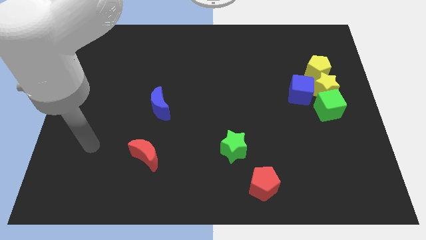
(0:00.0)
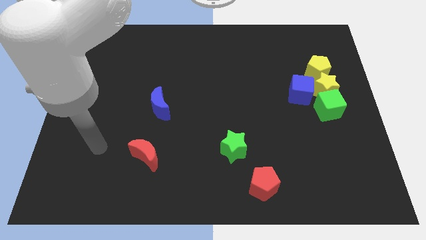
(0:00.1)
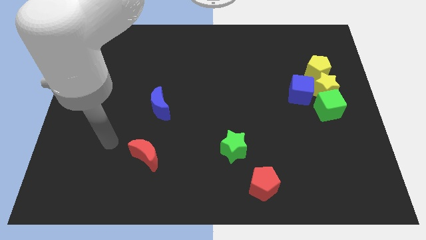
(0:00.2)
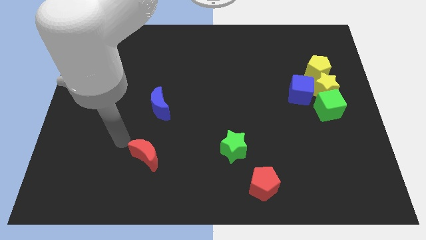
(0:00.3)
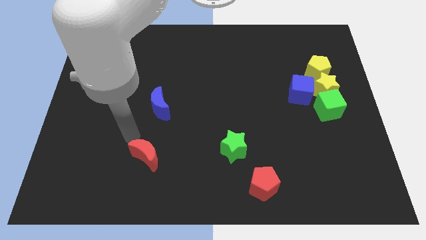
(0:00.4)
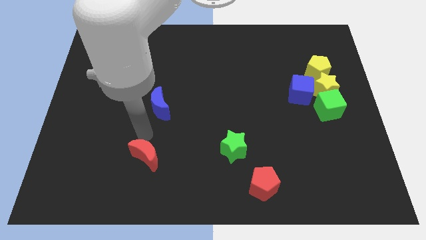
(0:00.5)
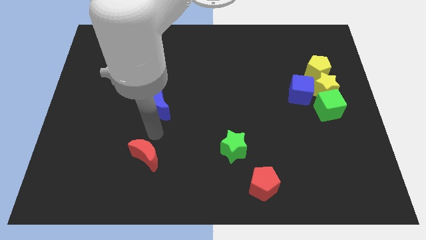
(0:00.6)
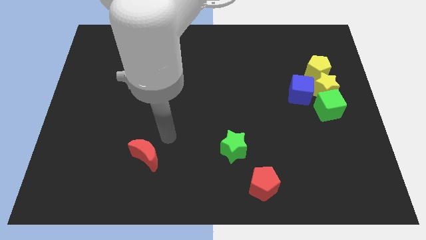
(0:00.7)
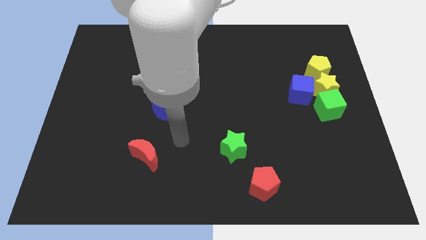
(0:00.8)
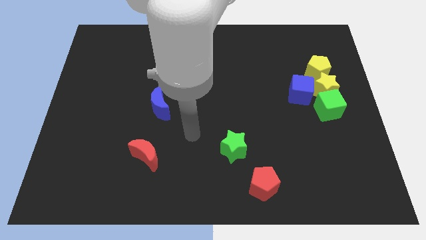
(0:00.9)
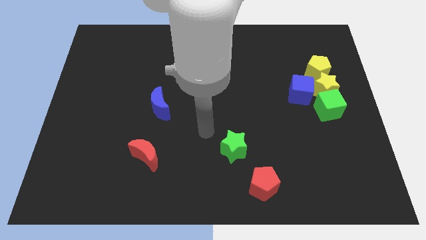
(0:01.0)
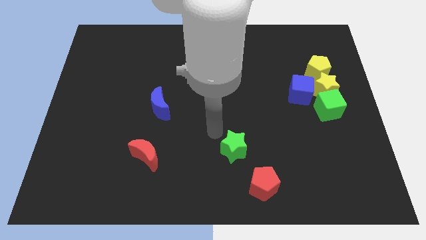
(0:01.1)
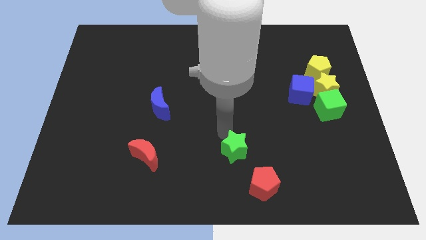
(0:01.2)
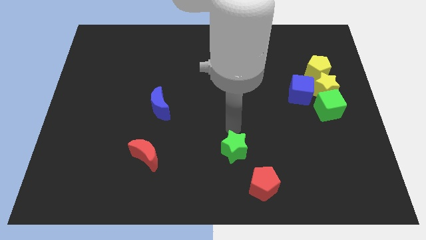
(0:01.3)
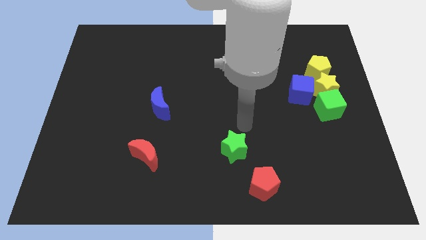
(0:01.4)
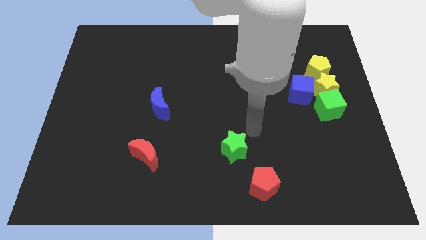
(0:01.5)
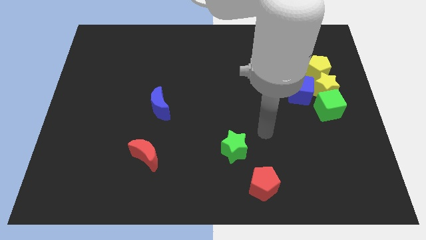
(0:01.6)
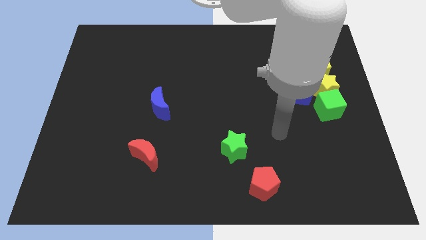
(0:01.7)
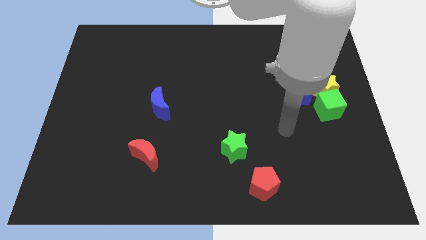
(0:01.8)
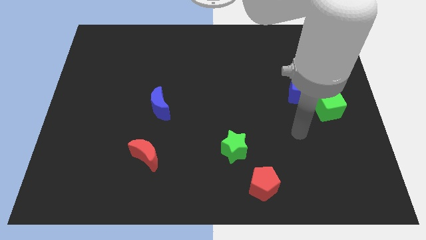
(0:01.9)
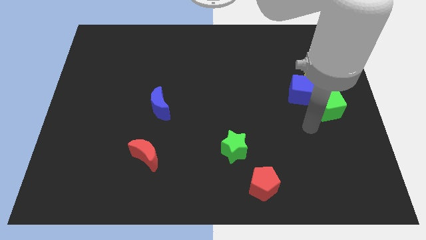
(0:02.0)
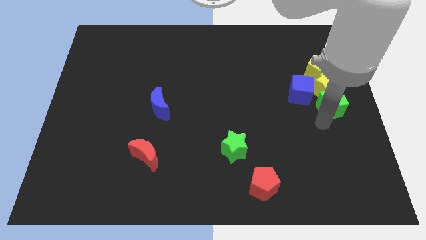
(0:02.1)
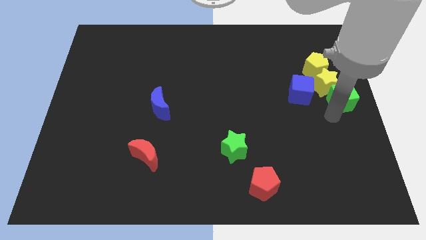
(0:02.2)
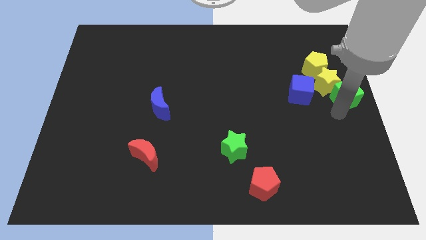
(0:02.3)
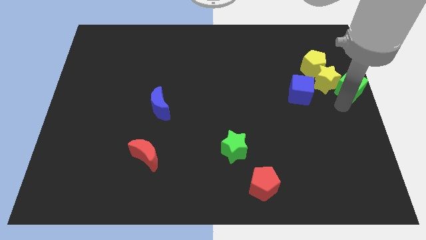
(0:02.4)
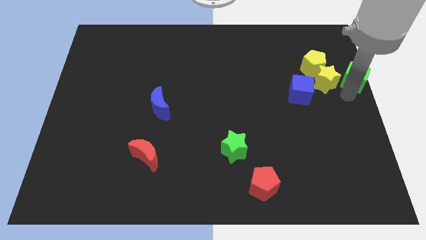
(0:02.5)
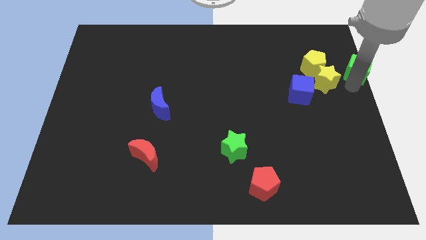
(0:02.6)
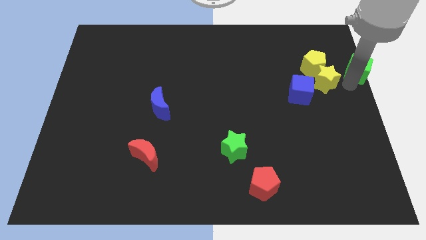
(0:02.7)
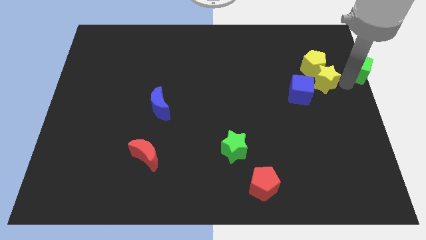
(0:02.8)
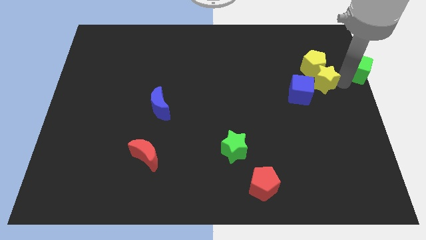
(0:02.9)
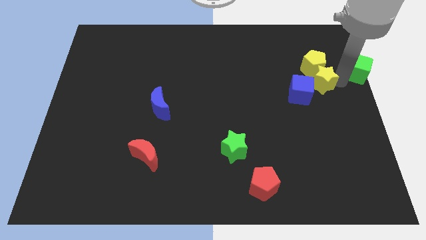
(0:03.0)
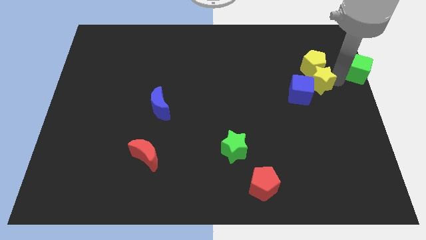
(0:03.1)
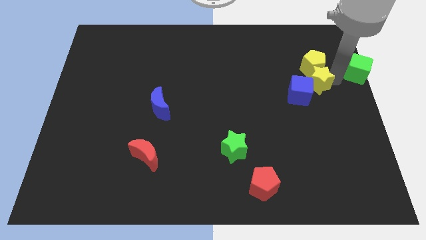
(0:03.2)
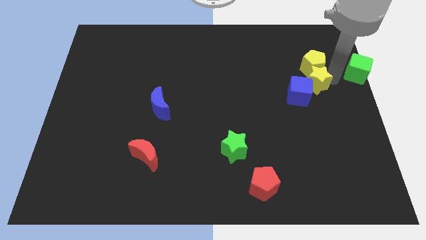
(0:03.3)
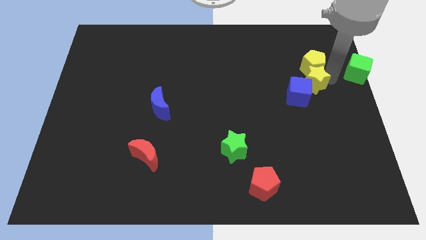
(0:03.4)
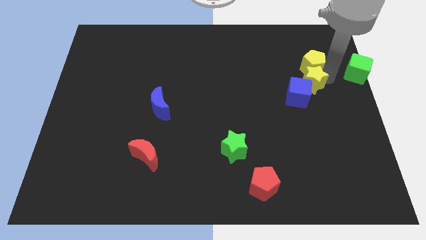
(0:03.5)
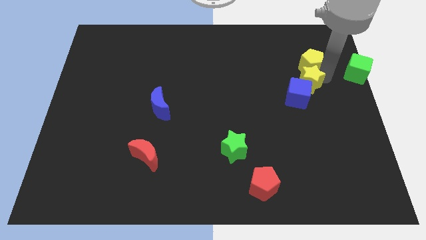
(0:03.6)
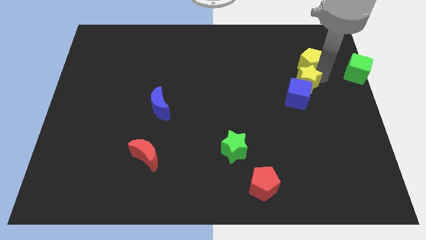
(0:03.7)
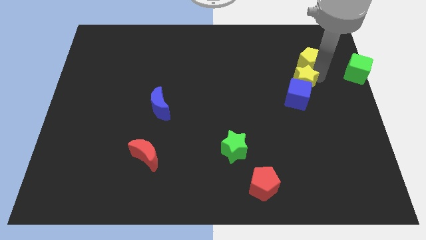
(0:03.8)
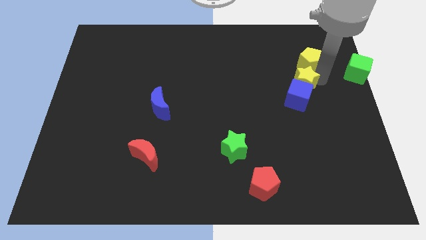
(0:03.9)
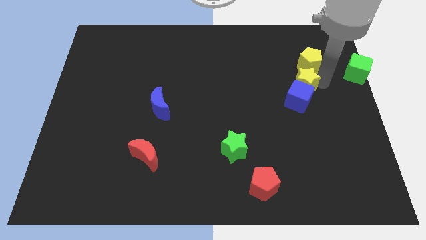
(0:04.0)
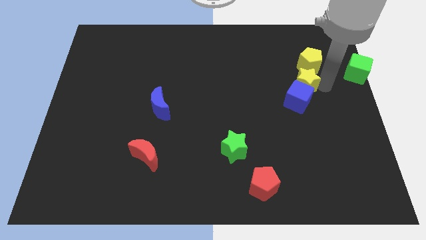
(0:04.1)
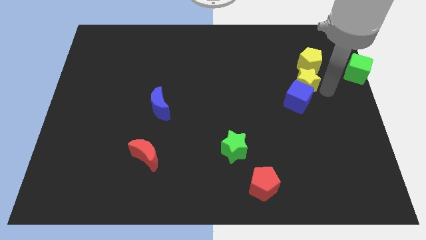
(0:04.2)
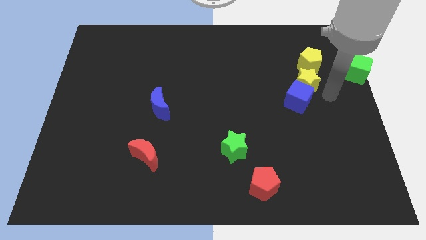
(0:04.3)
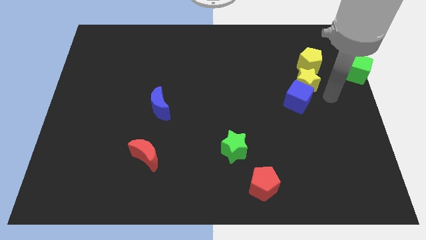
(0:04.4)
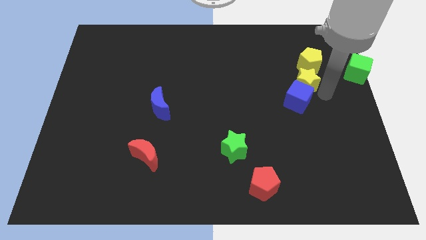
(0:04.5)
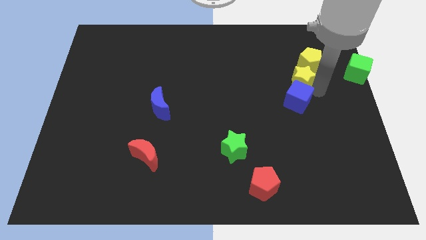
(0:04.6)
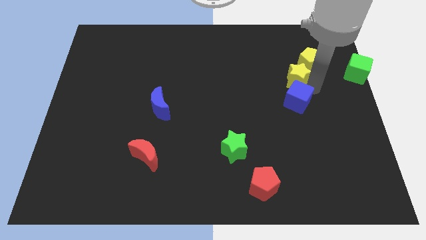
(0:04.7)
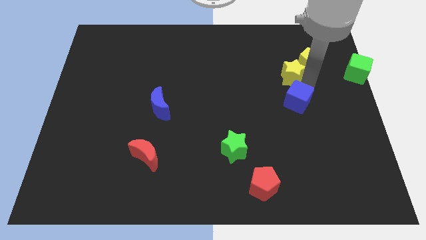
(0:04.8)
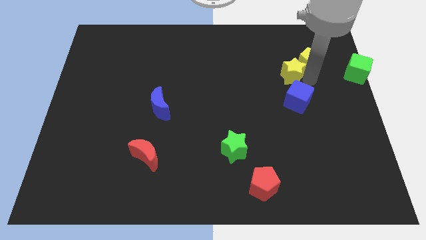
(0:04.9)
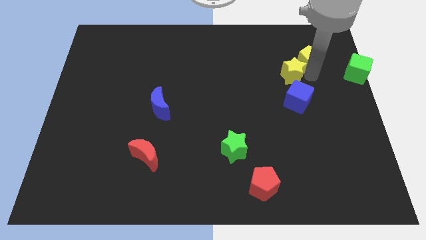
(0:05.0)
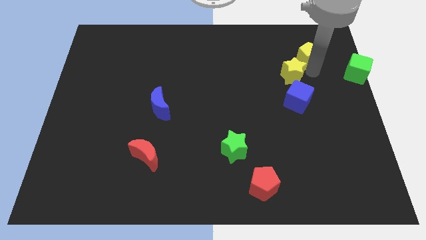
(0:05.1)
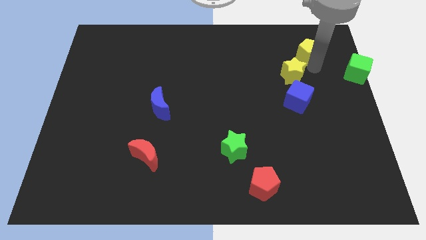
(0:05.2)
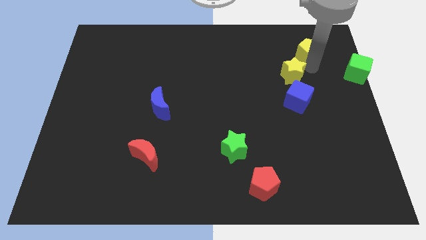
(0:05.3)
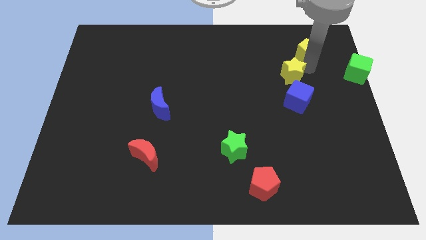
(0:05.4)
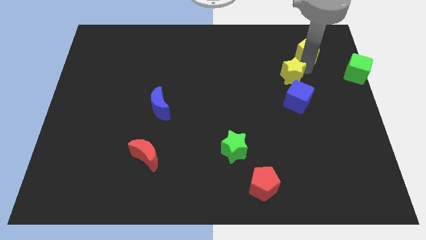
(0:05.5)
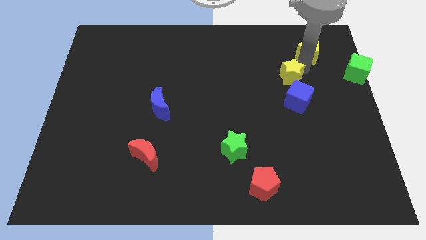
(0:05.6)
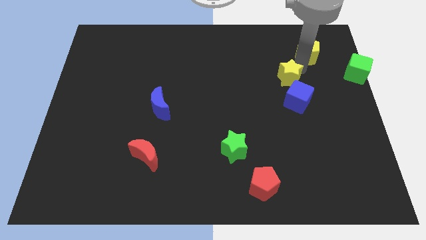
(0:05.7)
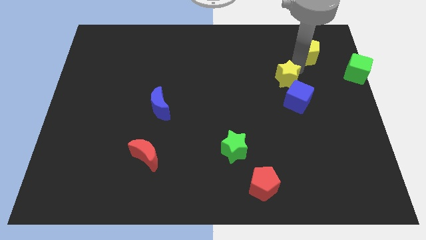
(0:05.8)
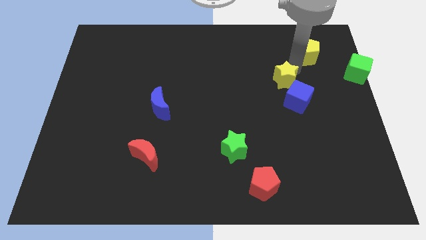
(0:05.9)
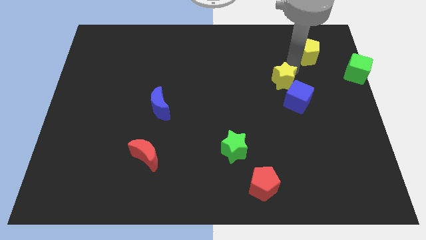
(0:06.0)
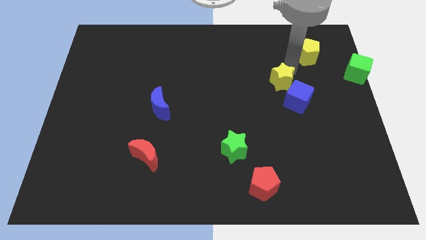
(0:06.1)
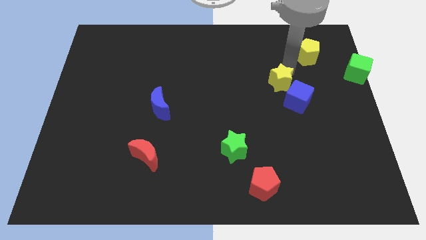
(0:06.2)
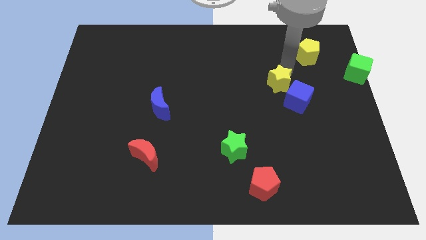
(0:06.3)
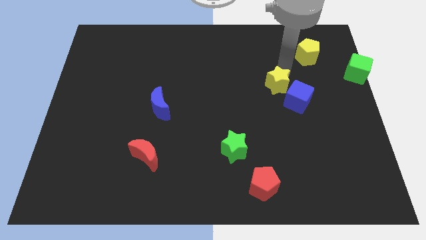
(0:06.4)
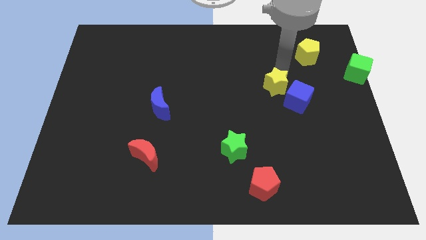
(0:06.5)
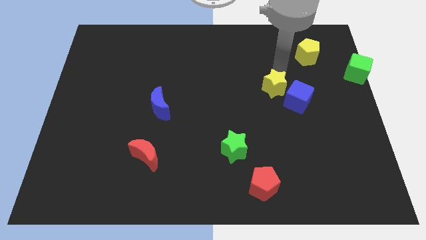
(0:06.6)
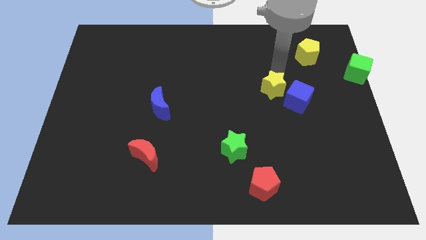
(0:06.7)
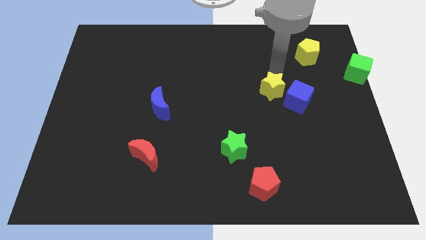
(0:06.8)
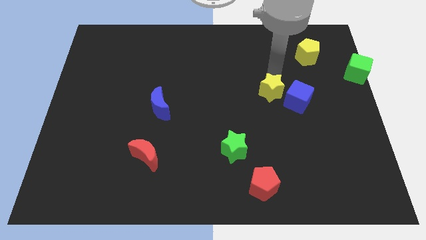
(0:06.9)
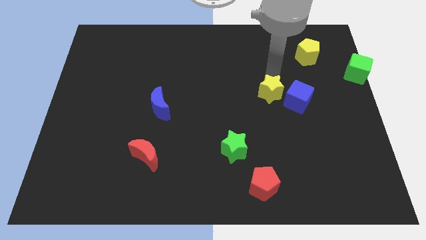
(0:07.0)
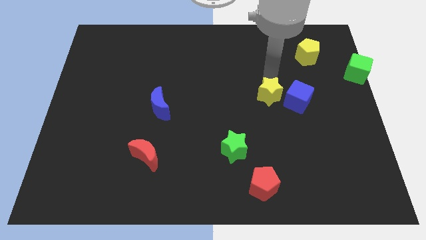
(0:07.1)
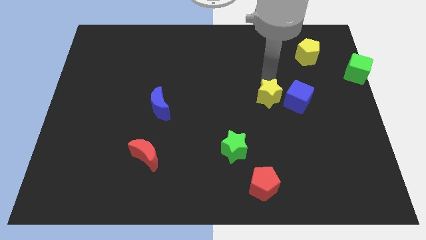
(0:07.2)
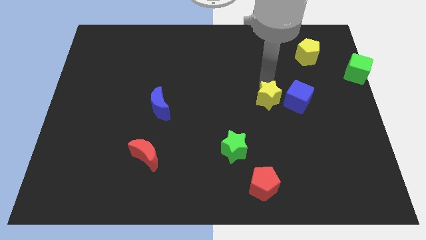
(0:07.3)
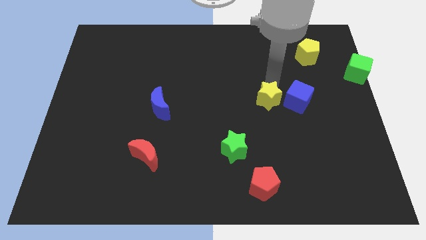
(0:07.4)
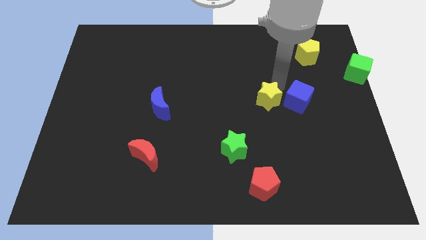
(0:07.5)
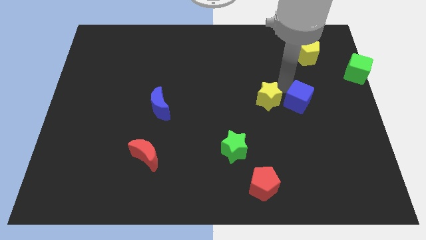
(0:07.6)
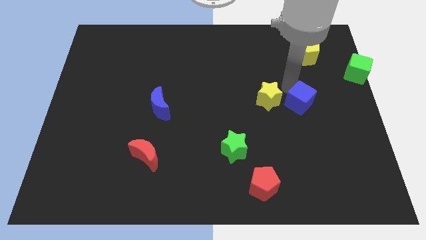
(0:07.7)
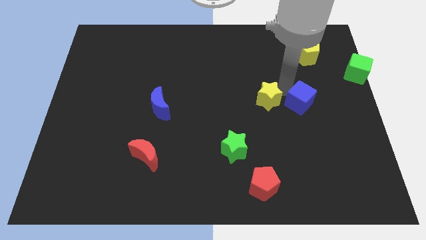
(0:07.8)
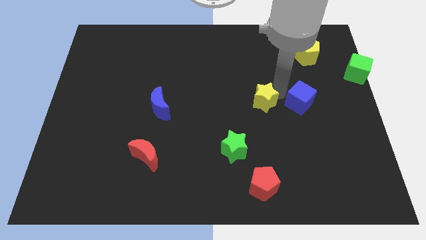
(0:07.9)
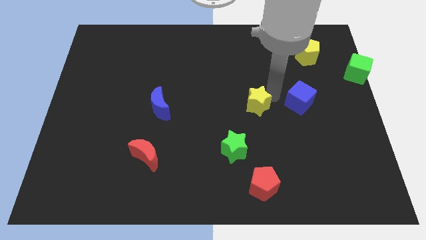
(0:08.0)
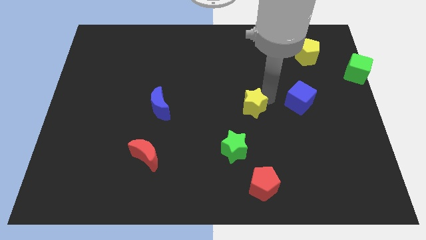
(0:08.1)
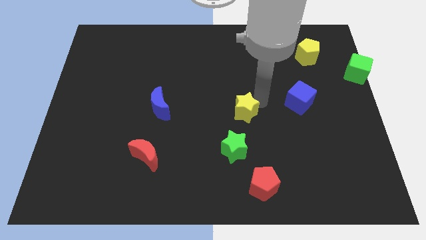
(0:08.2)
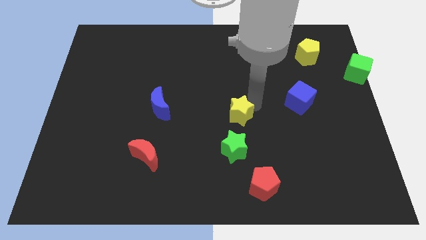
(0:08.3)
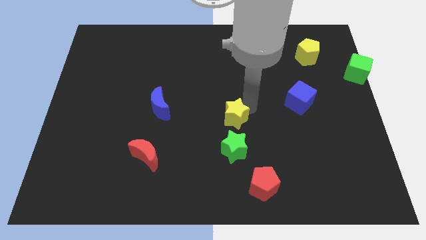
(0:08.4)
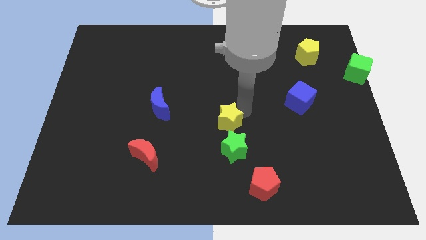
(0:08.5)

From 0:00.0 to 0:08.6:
put the yellow star to the top left of the green star
